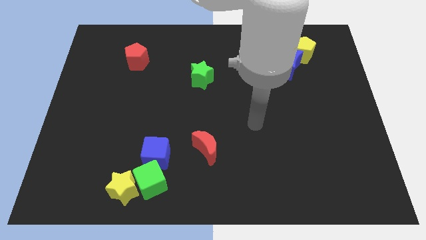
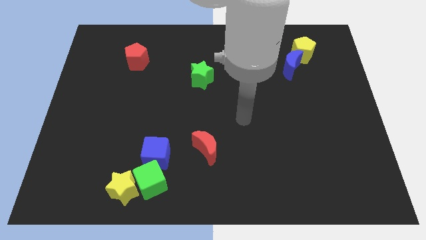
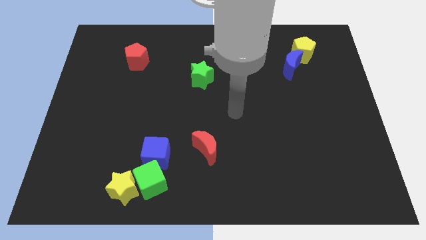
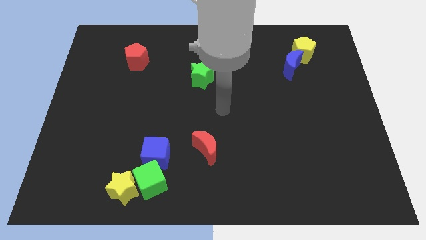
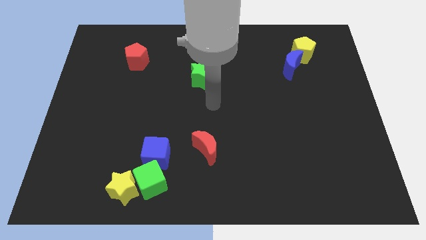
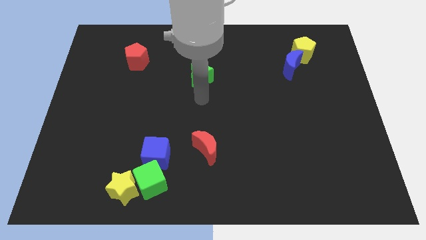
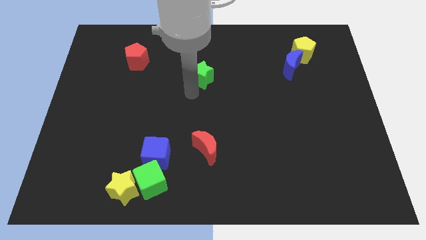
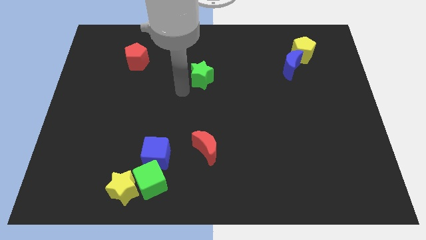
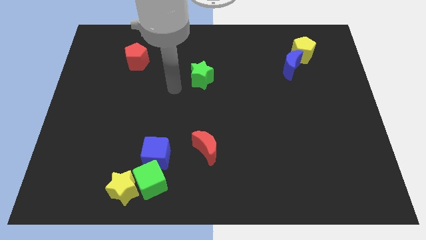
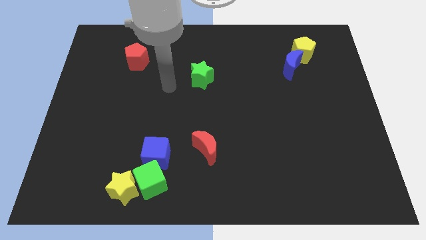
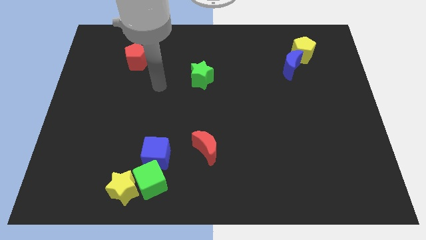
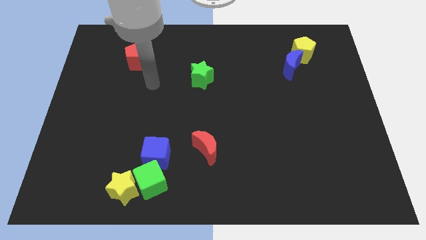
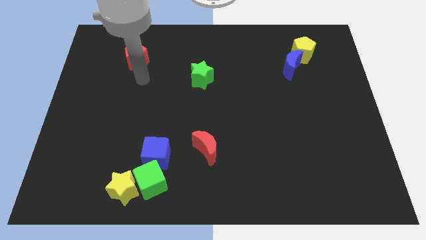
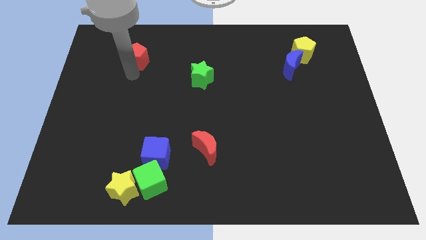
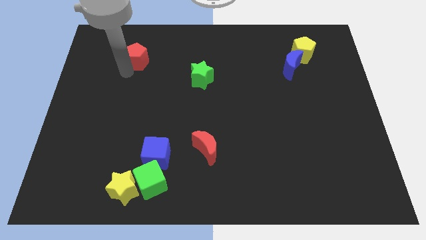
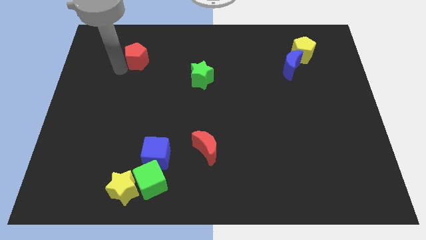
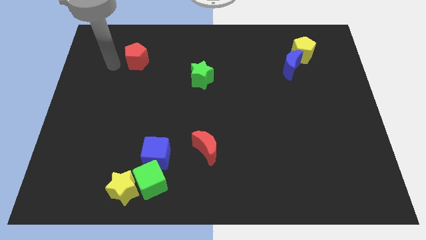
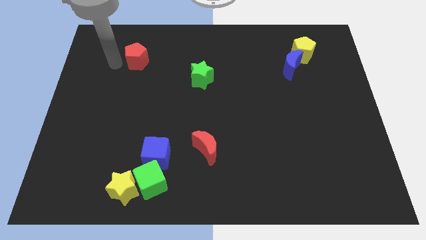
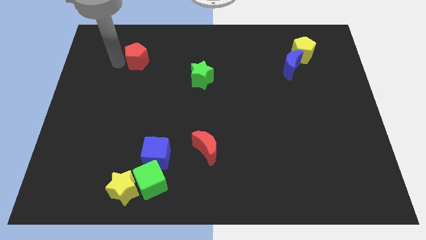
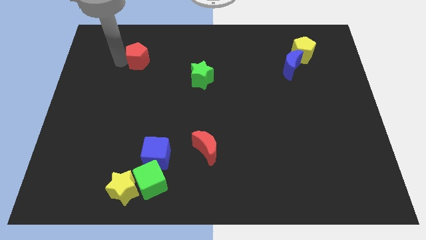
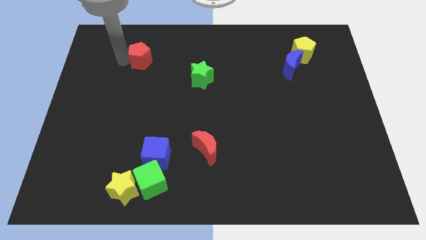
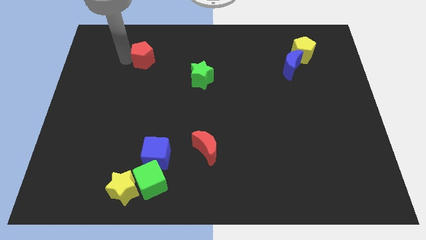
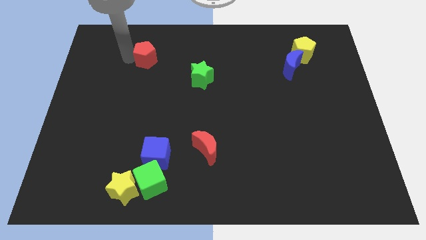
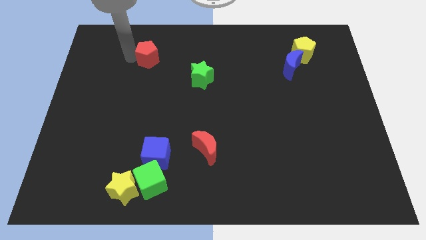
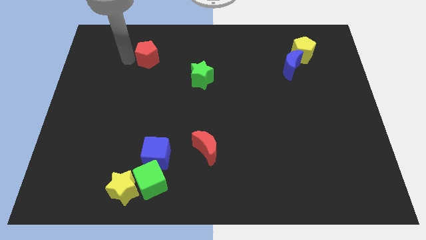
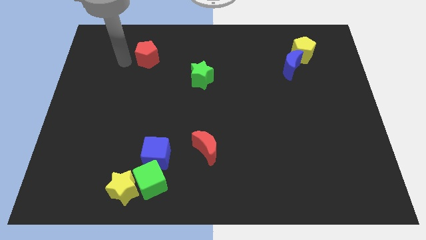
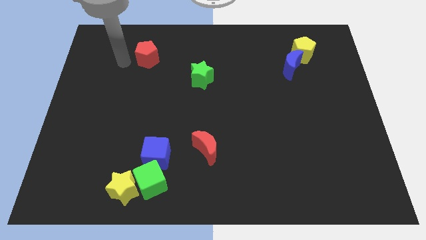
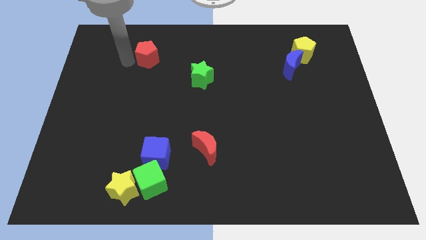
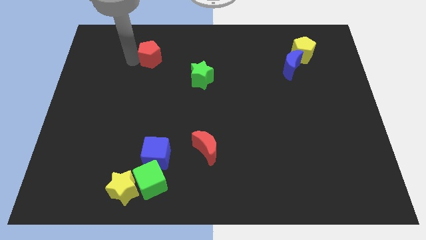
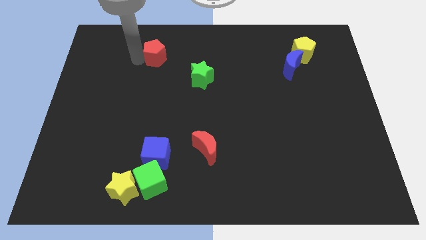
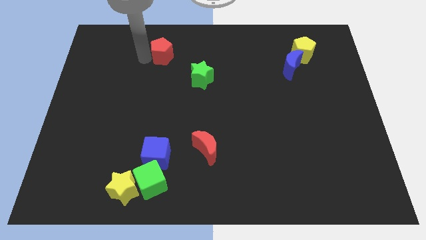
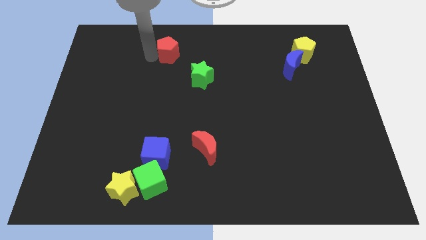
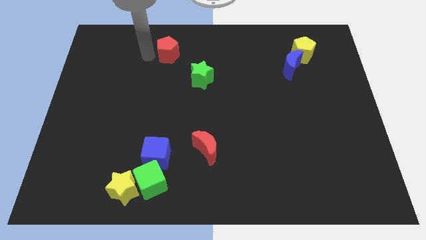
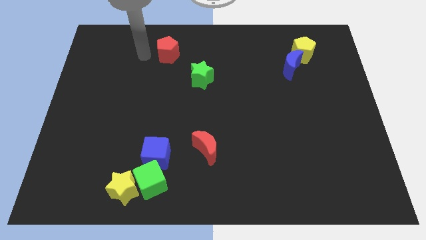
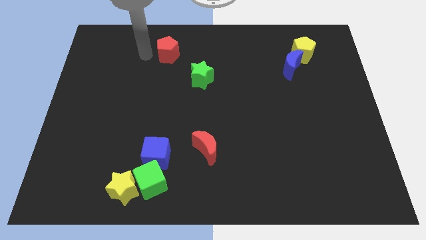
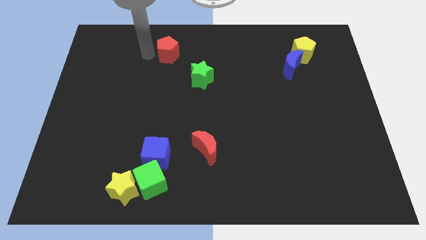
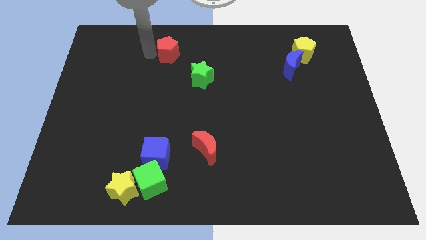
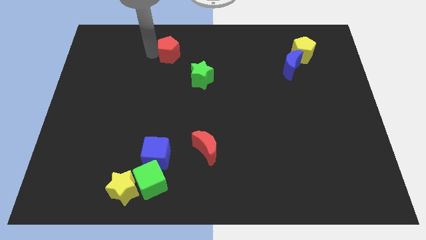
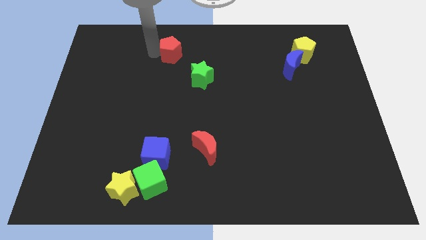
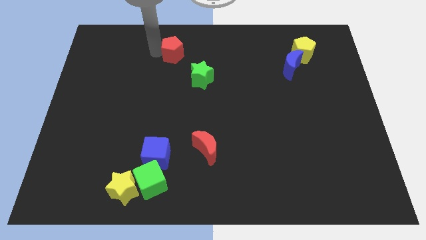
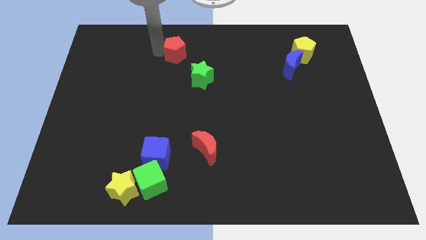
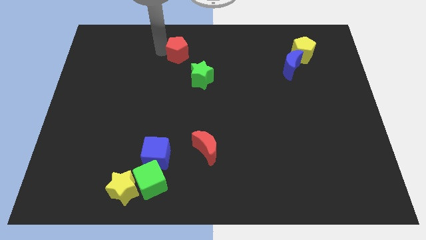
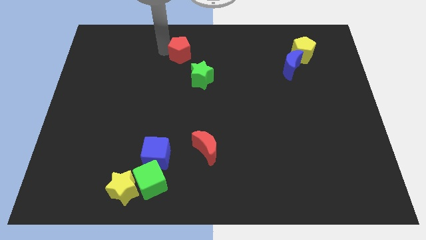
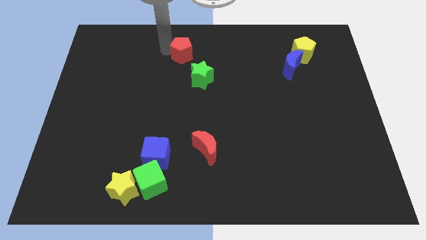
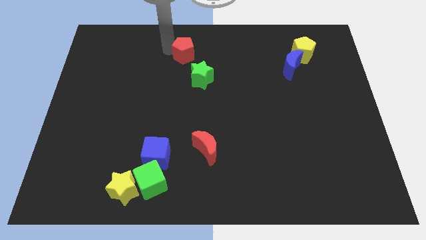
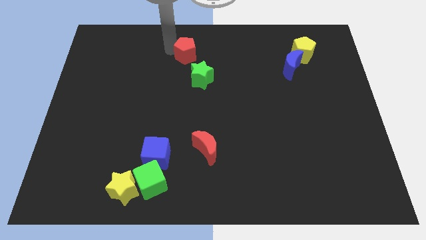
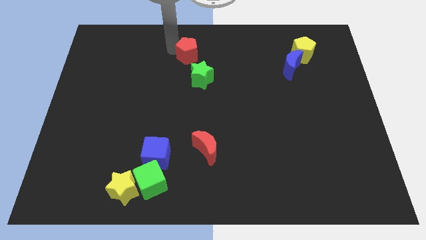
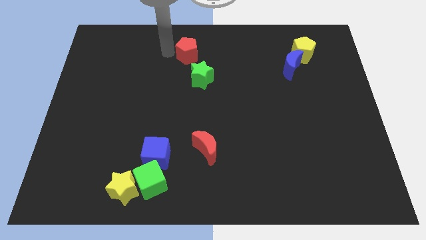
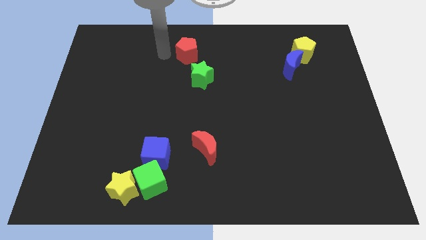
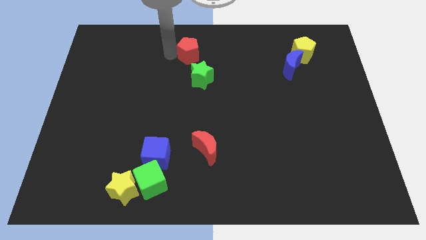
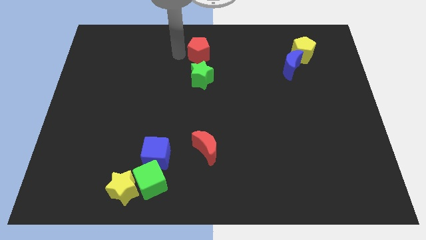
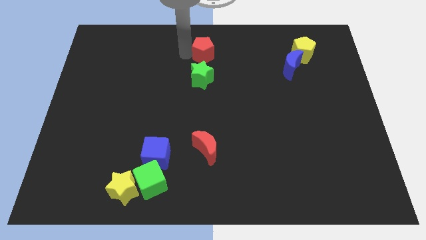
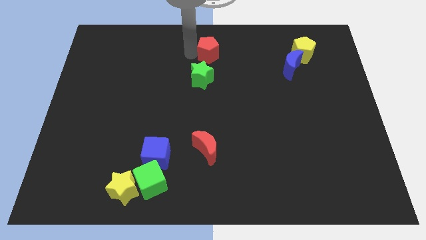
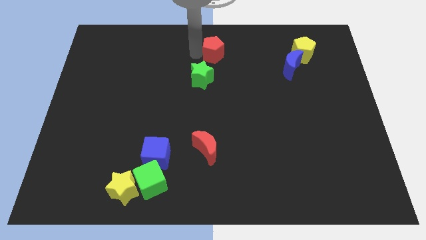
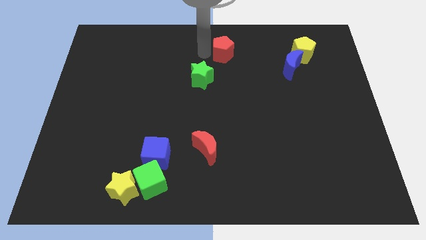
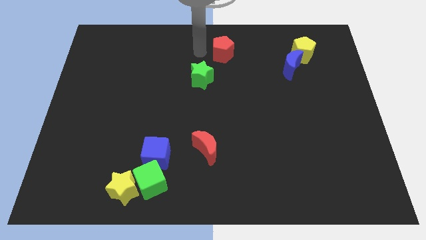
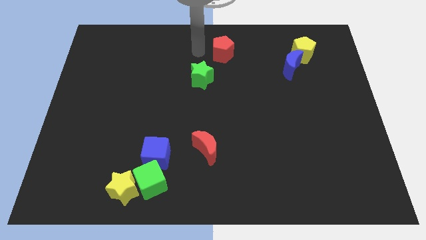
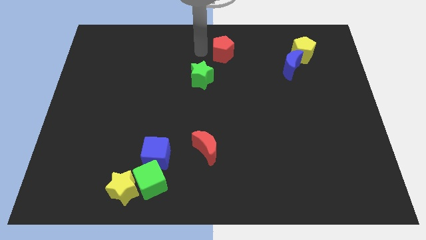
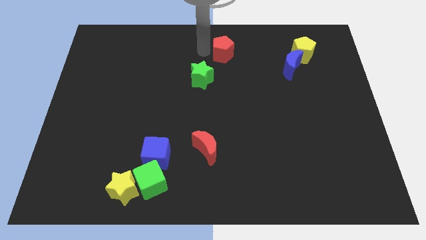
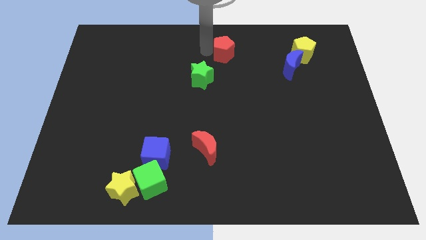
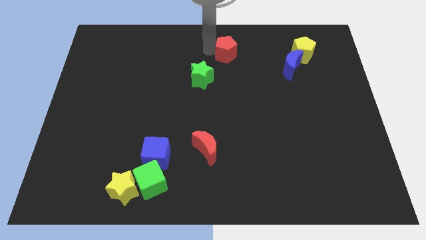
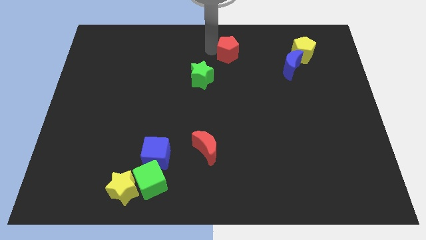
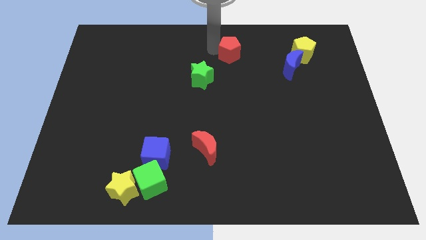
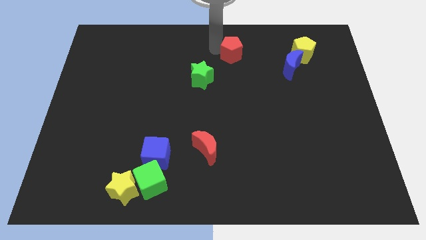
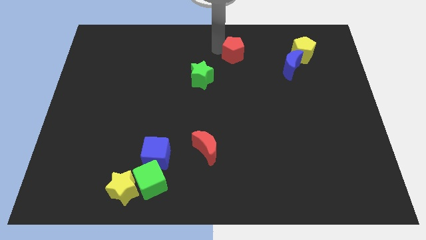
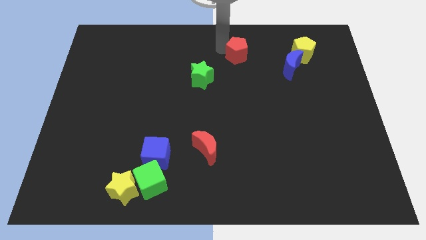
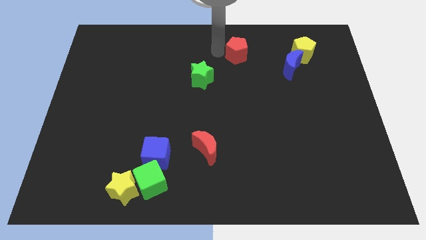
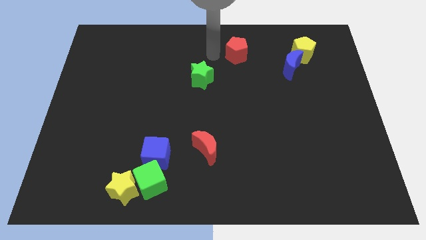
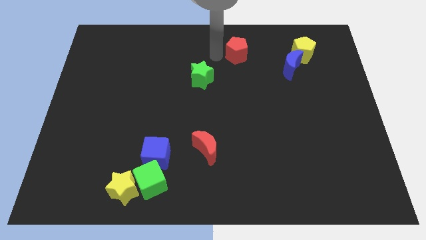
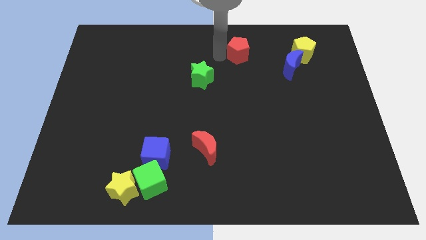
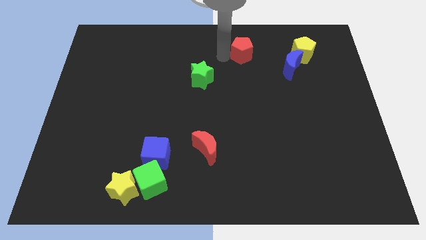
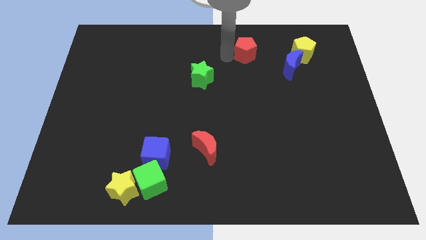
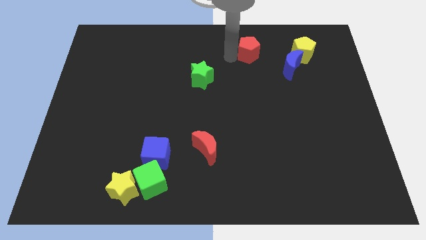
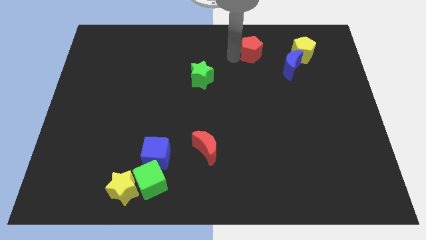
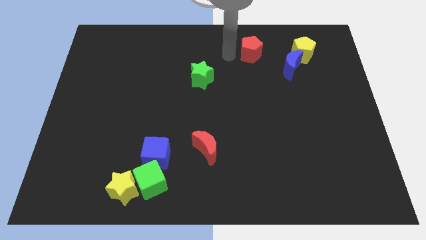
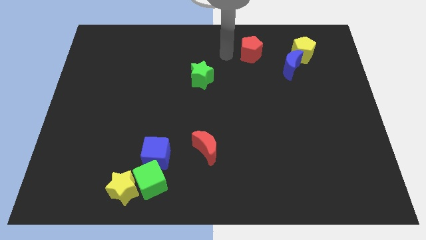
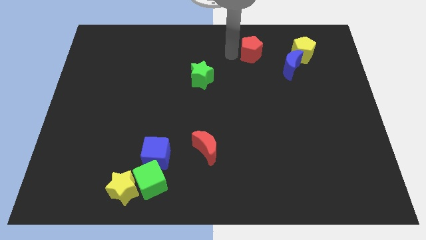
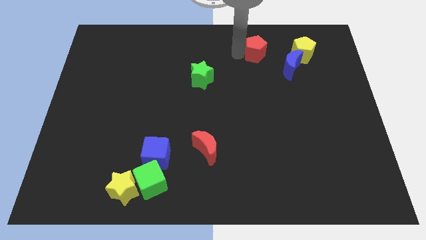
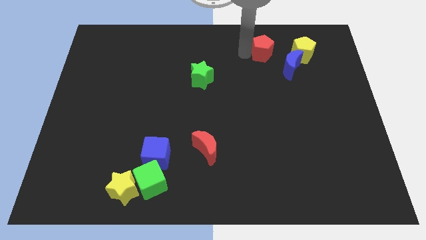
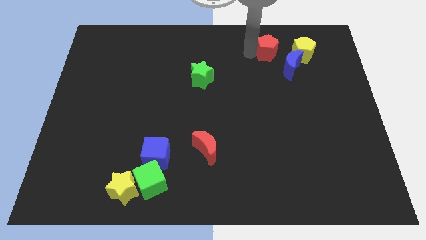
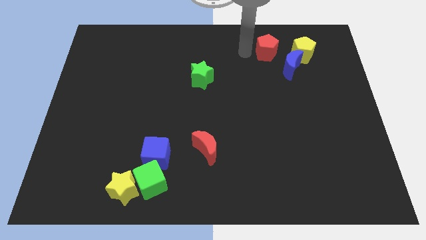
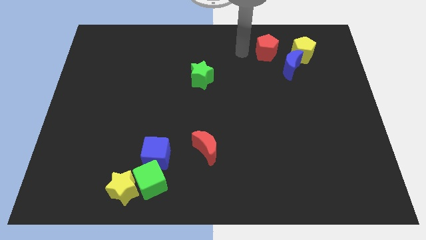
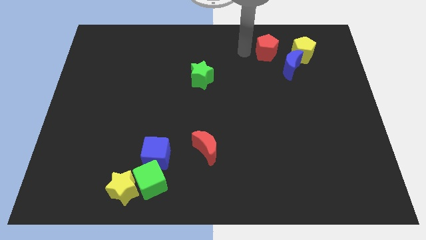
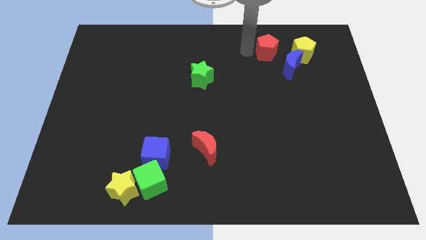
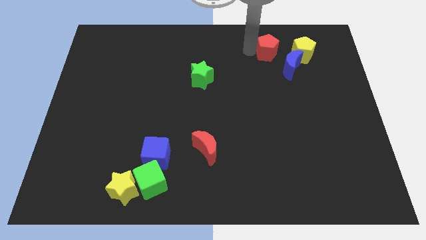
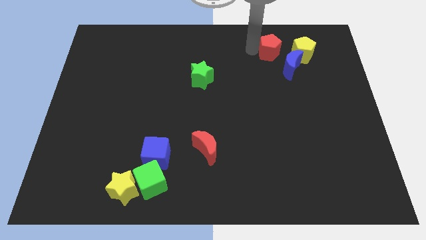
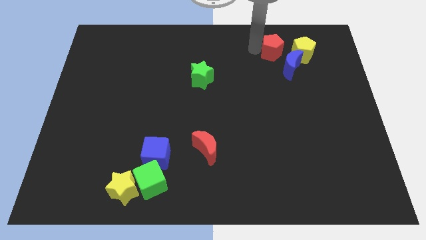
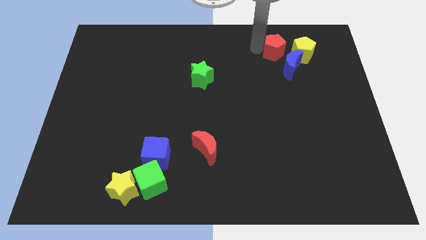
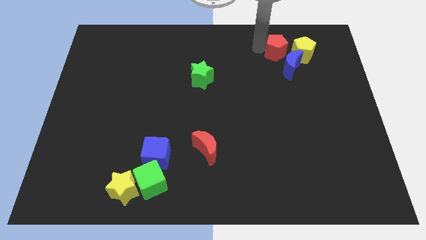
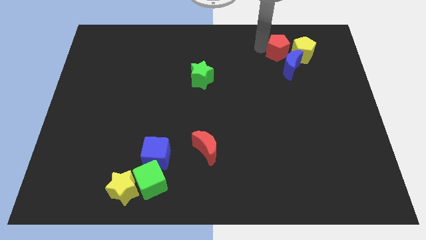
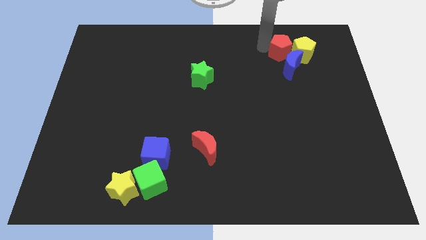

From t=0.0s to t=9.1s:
move the red pentagon to the yellow pentagon
